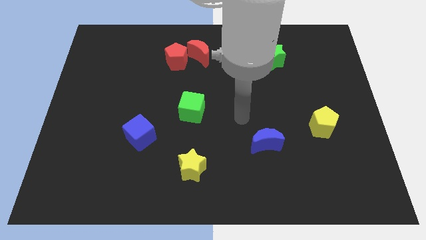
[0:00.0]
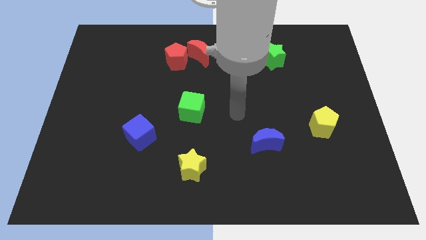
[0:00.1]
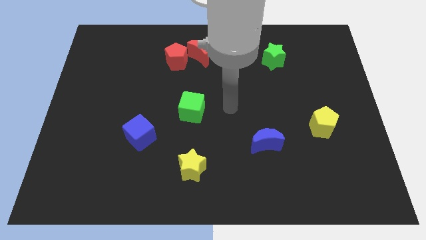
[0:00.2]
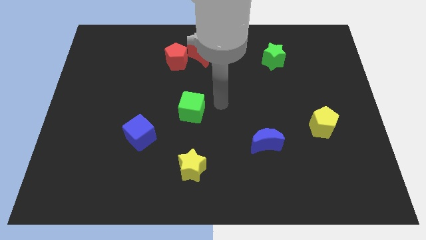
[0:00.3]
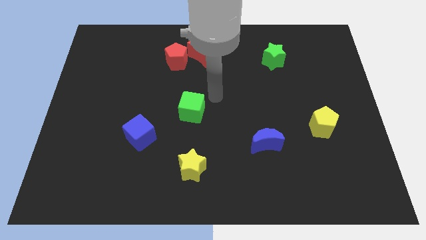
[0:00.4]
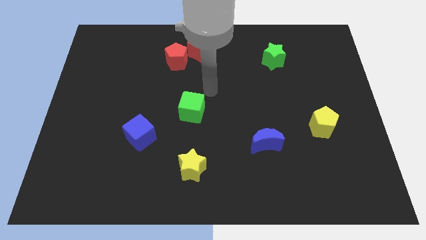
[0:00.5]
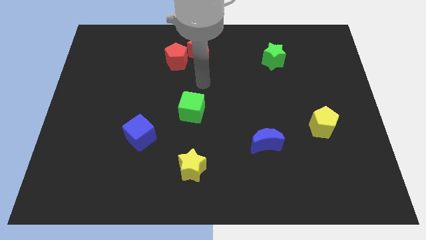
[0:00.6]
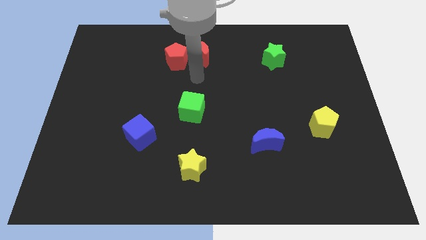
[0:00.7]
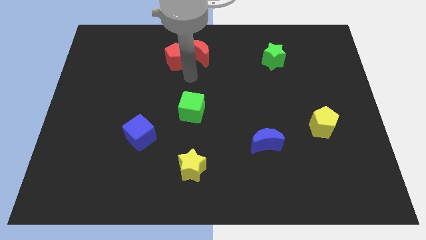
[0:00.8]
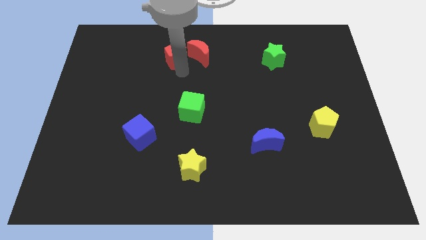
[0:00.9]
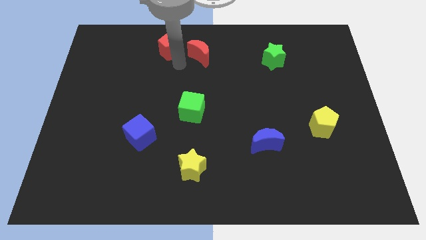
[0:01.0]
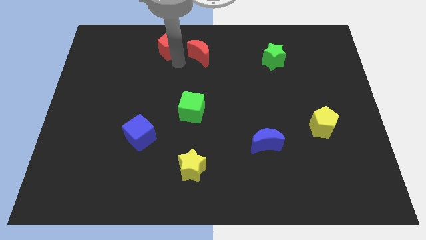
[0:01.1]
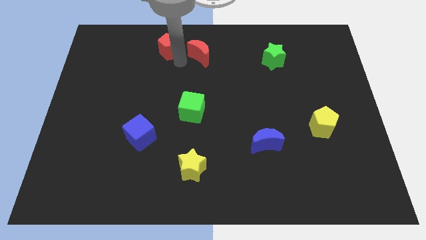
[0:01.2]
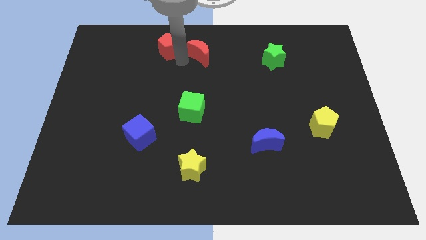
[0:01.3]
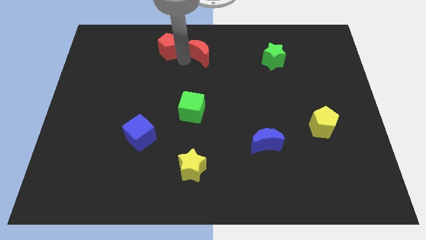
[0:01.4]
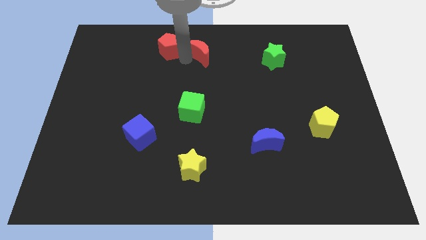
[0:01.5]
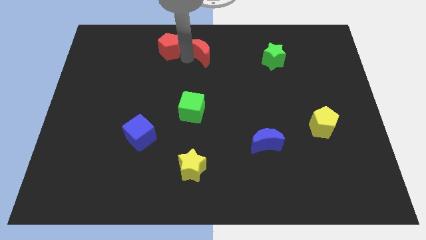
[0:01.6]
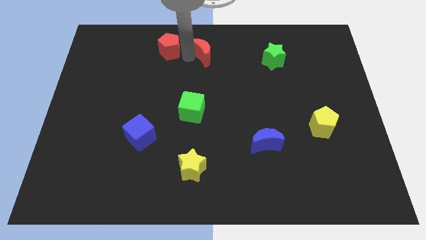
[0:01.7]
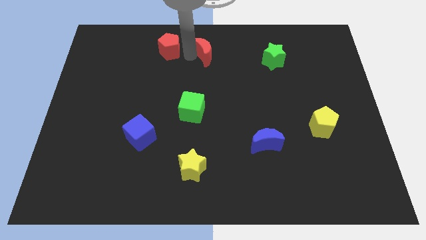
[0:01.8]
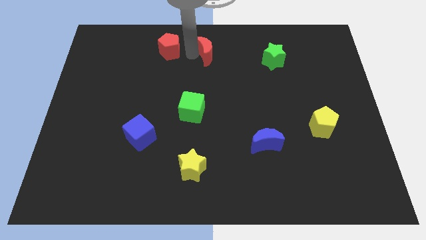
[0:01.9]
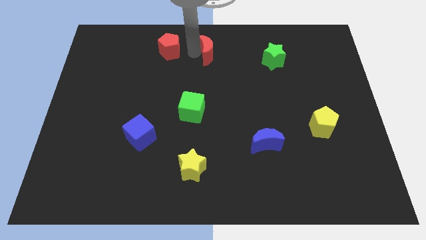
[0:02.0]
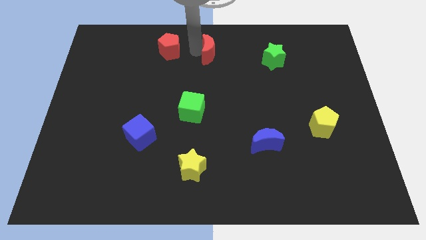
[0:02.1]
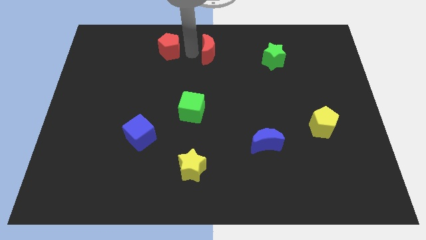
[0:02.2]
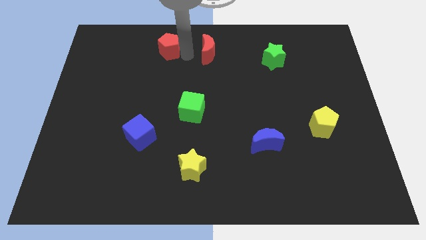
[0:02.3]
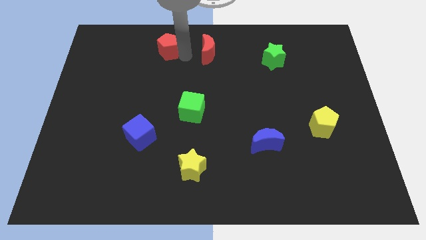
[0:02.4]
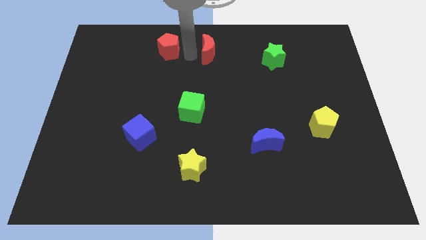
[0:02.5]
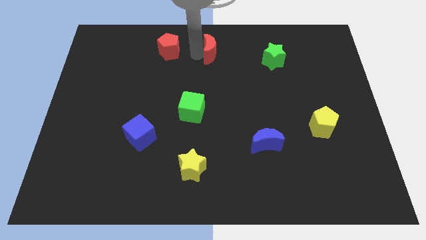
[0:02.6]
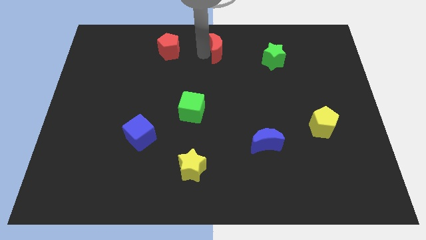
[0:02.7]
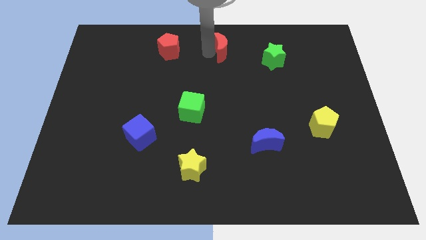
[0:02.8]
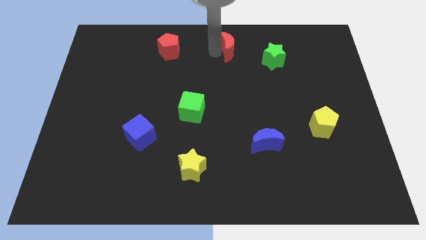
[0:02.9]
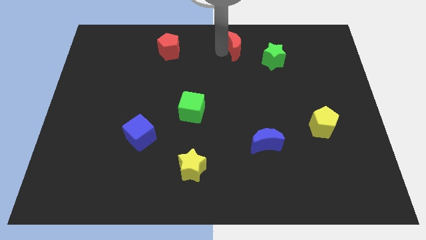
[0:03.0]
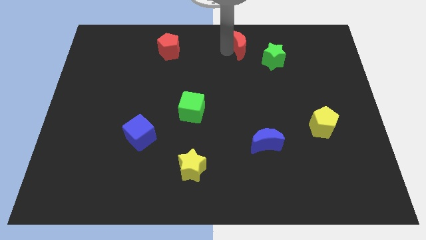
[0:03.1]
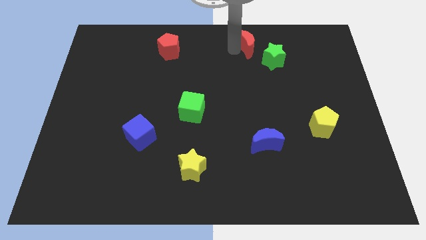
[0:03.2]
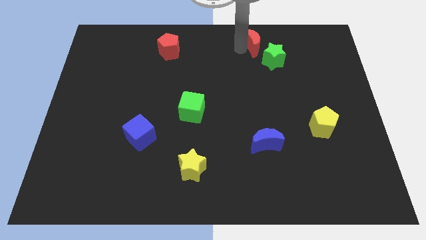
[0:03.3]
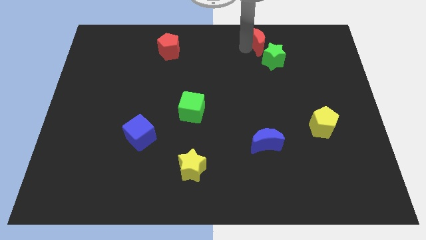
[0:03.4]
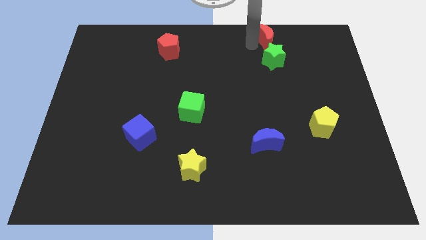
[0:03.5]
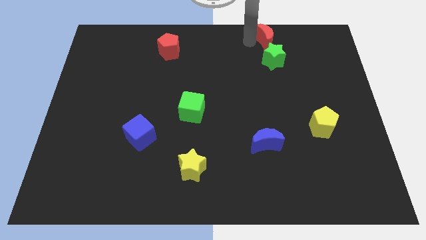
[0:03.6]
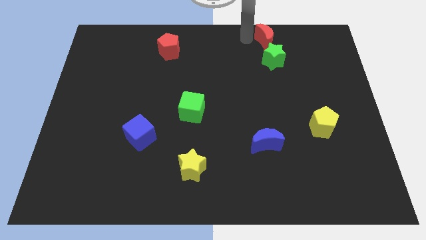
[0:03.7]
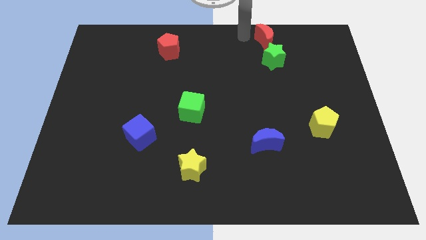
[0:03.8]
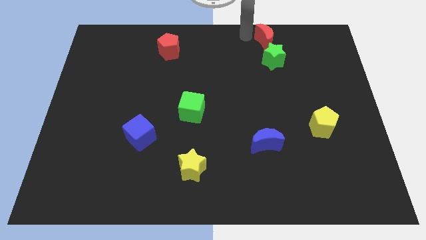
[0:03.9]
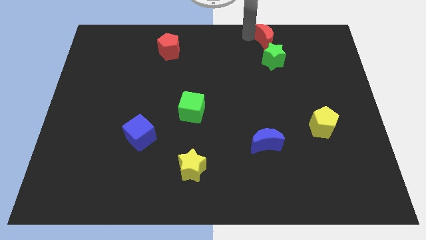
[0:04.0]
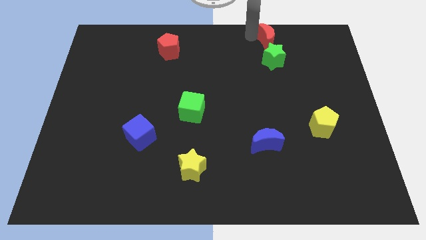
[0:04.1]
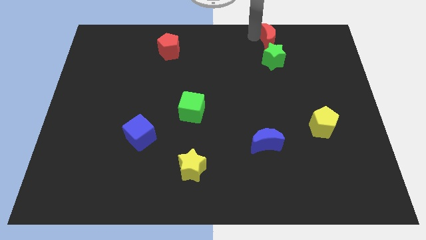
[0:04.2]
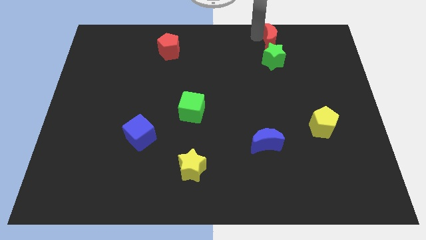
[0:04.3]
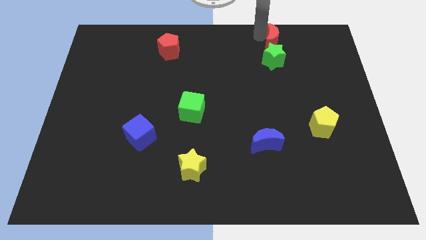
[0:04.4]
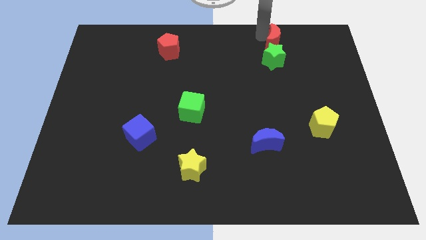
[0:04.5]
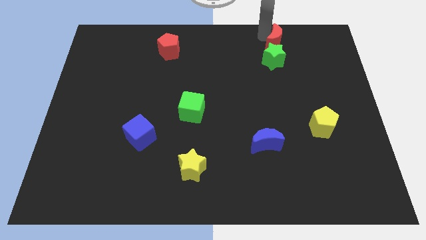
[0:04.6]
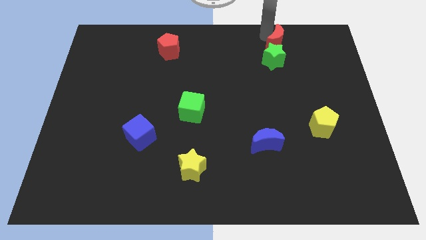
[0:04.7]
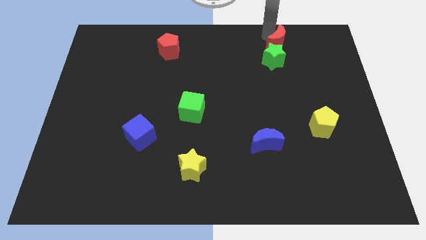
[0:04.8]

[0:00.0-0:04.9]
push the red moon right

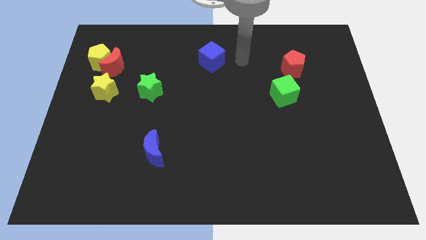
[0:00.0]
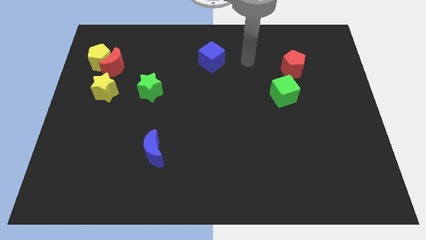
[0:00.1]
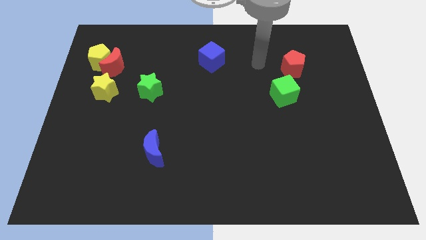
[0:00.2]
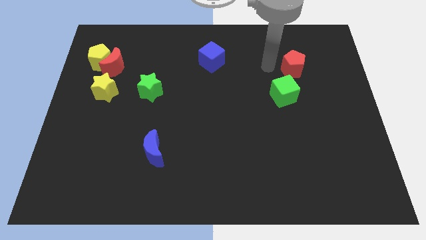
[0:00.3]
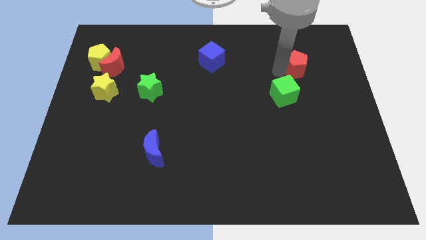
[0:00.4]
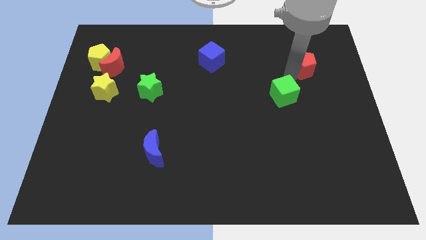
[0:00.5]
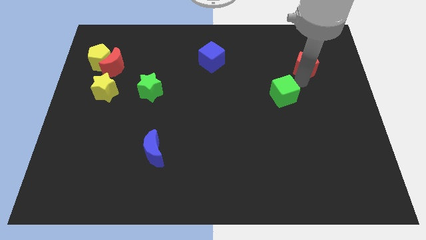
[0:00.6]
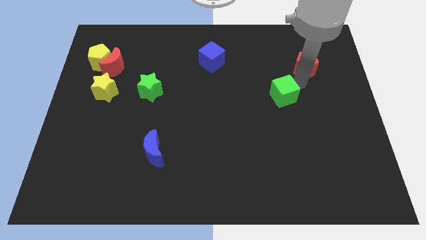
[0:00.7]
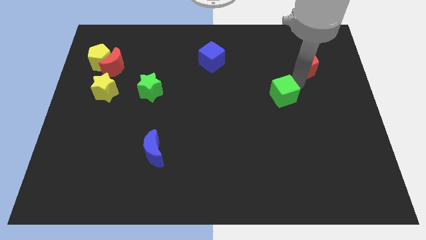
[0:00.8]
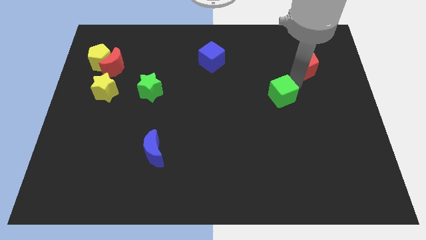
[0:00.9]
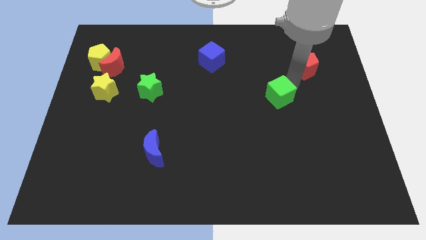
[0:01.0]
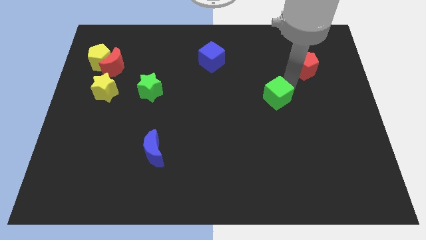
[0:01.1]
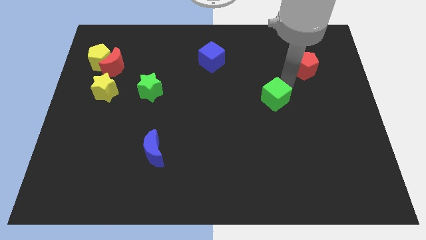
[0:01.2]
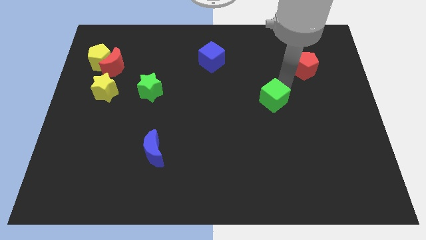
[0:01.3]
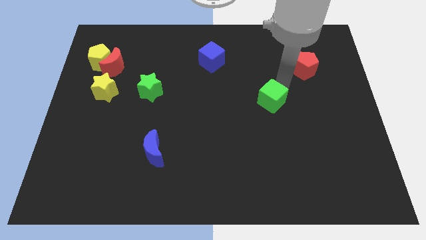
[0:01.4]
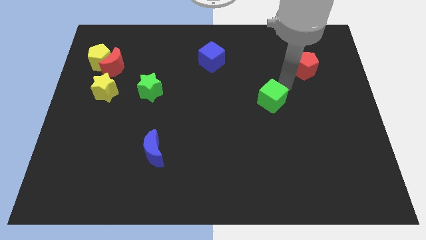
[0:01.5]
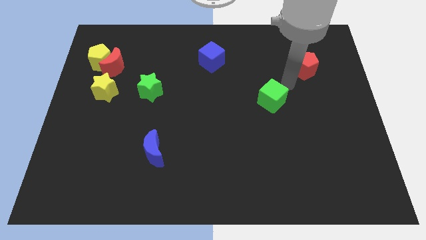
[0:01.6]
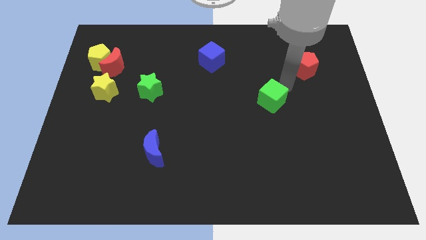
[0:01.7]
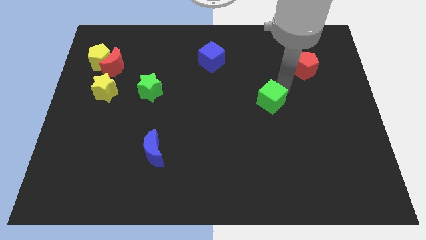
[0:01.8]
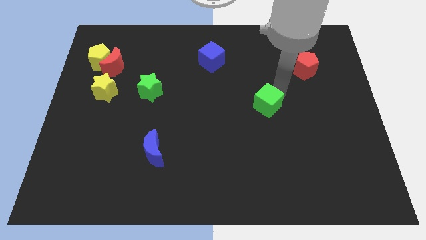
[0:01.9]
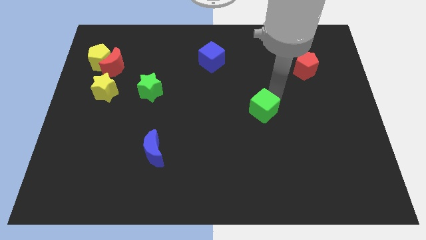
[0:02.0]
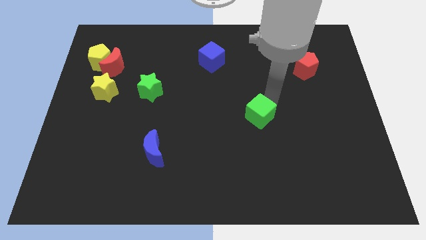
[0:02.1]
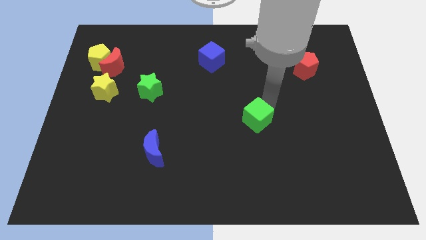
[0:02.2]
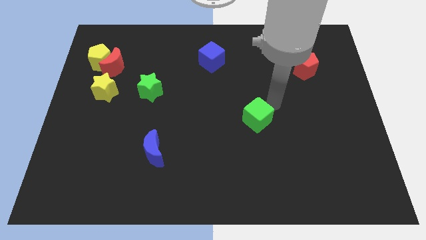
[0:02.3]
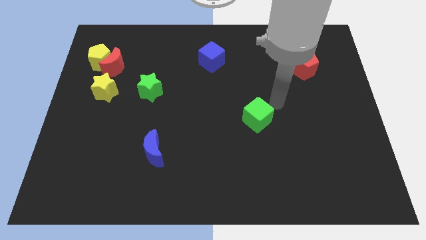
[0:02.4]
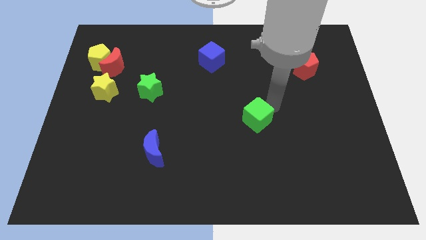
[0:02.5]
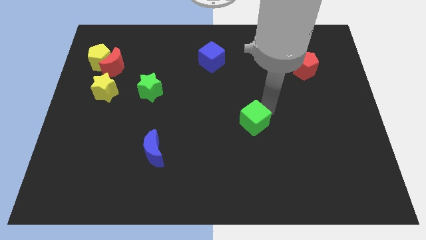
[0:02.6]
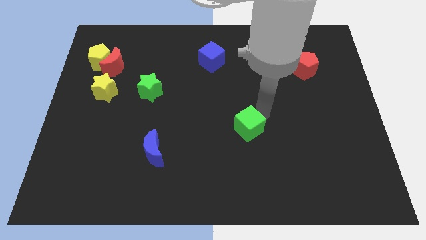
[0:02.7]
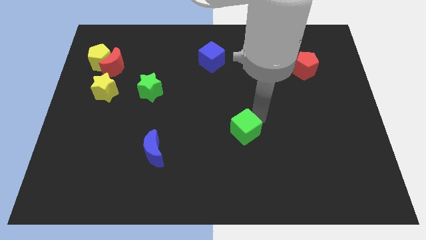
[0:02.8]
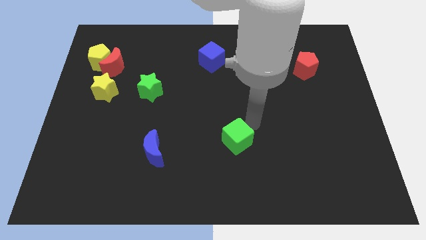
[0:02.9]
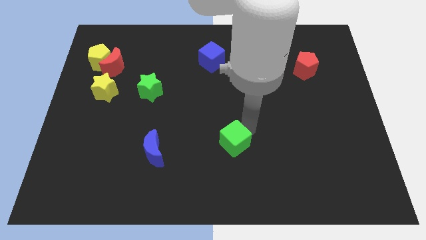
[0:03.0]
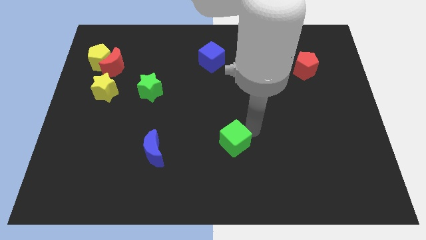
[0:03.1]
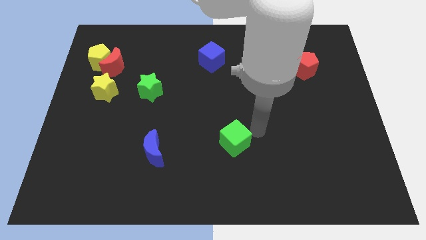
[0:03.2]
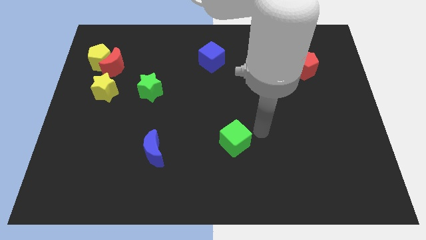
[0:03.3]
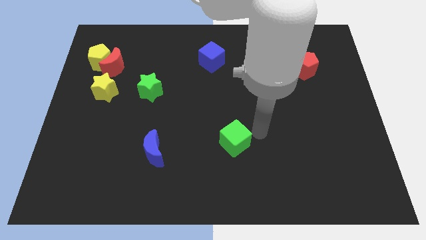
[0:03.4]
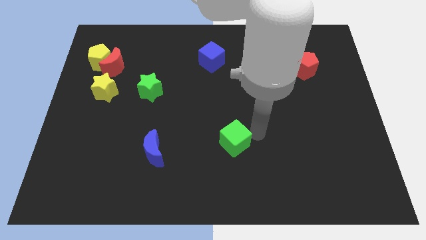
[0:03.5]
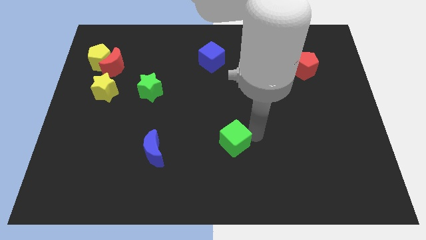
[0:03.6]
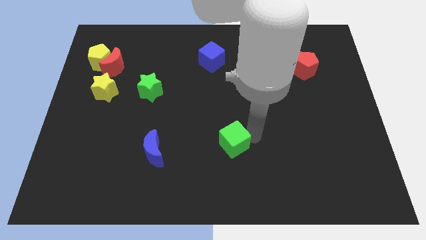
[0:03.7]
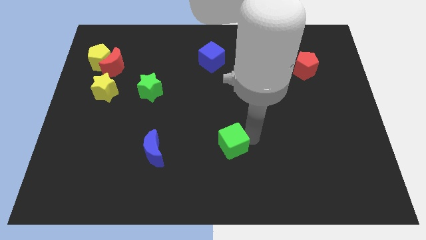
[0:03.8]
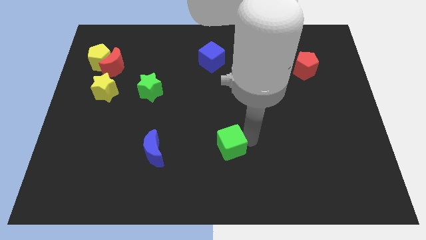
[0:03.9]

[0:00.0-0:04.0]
slide the green cube diagonally down and to the left
